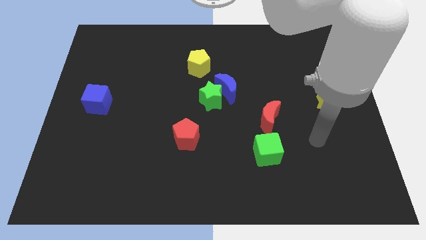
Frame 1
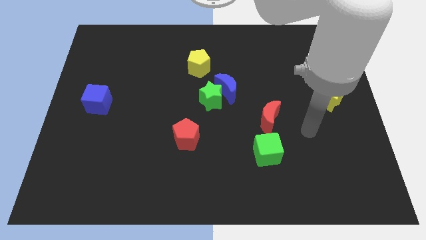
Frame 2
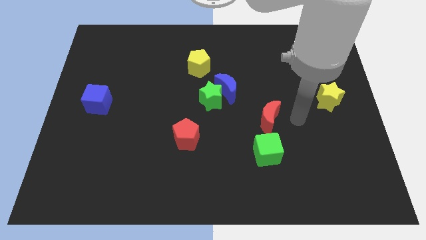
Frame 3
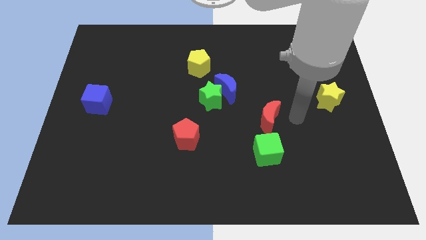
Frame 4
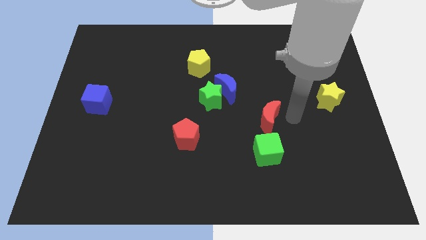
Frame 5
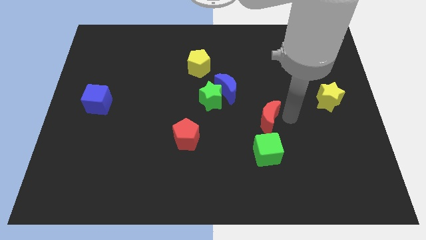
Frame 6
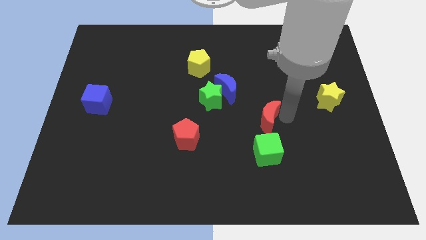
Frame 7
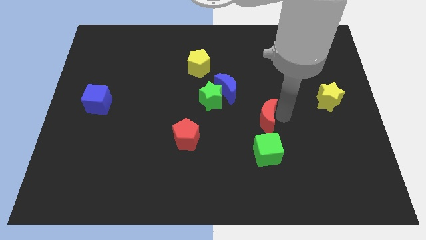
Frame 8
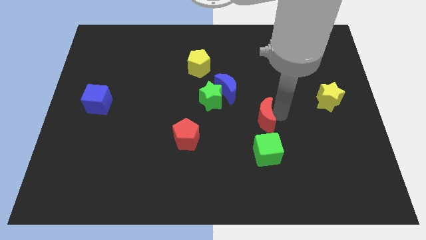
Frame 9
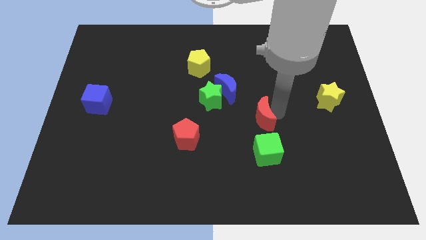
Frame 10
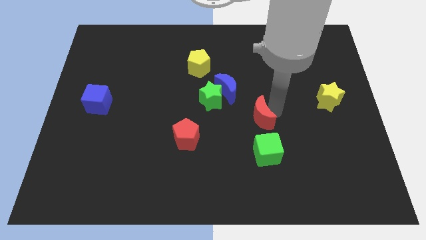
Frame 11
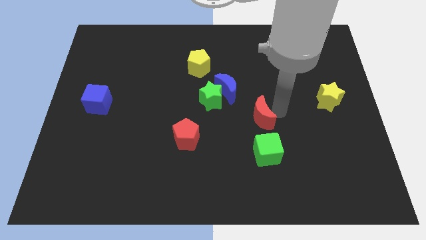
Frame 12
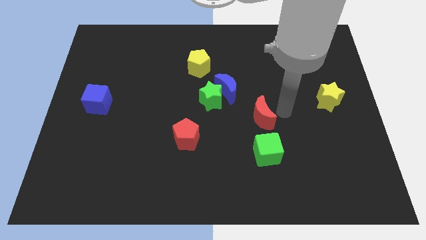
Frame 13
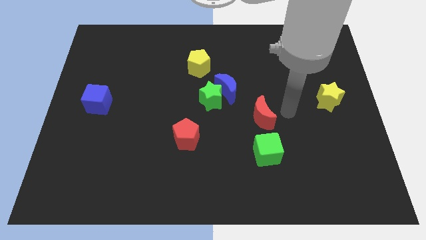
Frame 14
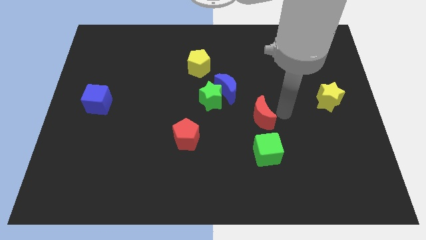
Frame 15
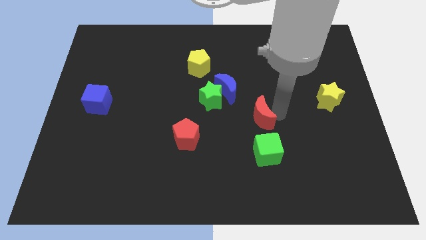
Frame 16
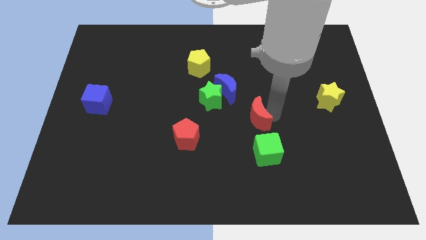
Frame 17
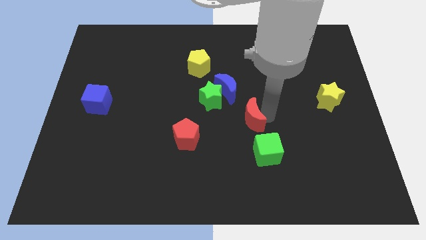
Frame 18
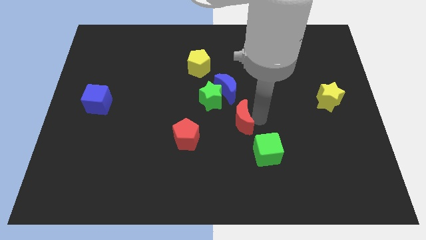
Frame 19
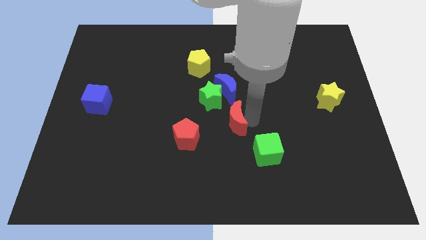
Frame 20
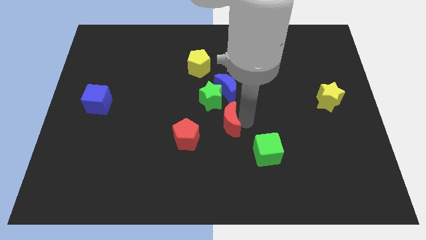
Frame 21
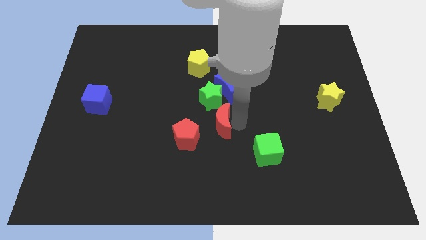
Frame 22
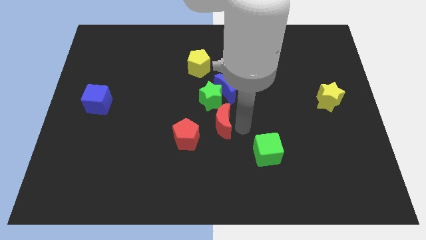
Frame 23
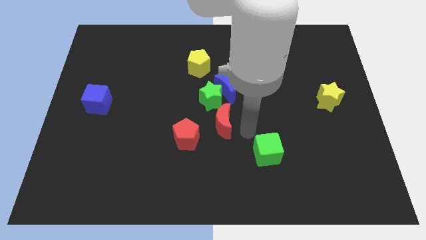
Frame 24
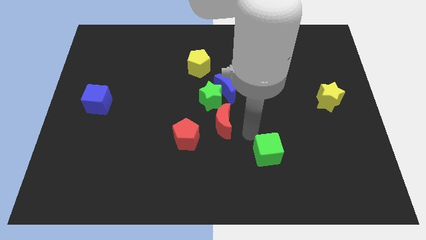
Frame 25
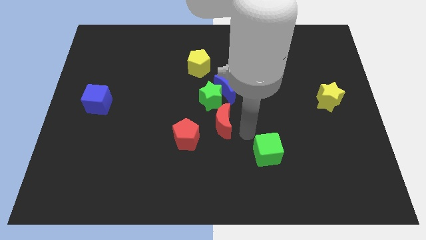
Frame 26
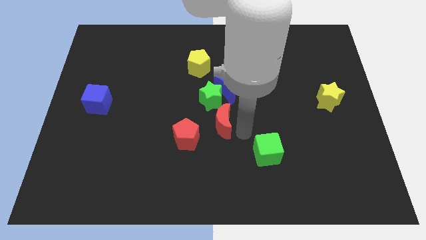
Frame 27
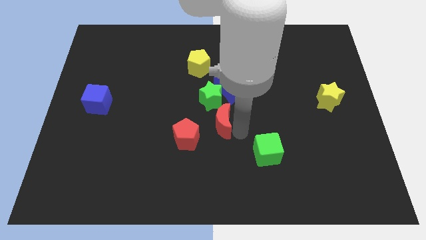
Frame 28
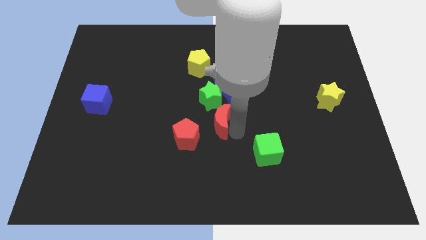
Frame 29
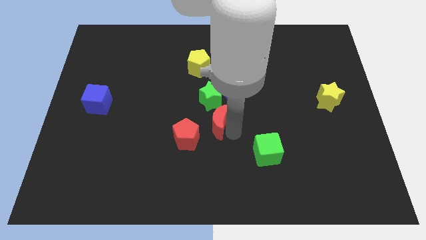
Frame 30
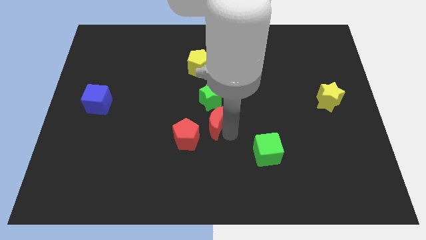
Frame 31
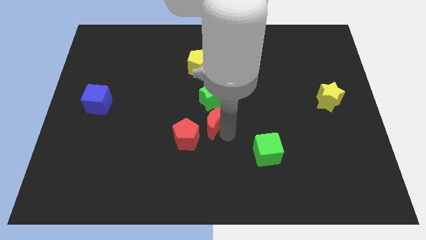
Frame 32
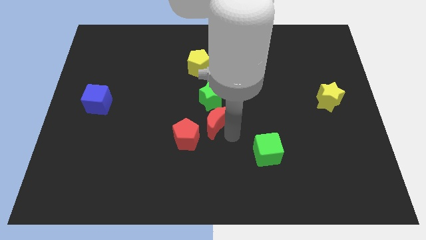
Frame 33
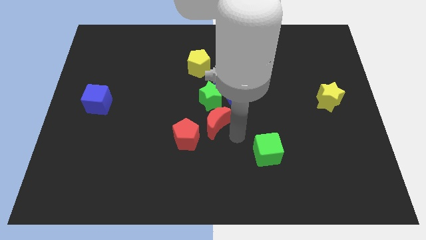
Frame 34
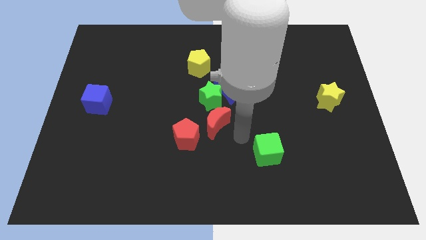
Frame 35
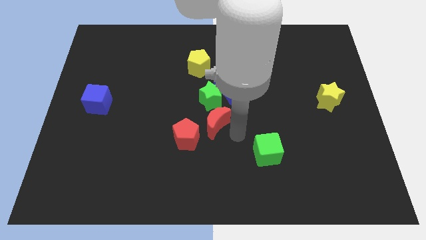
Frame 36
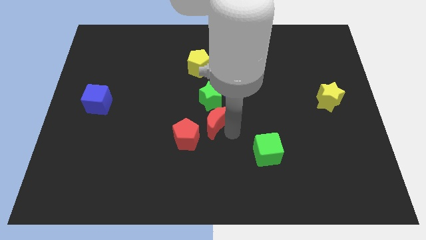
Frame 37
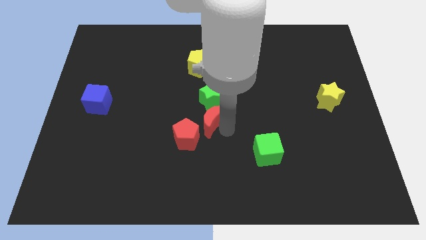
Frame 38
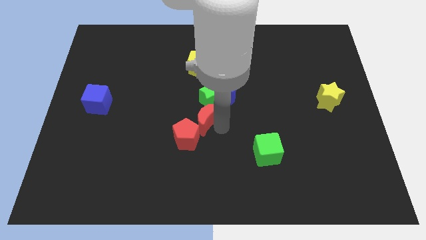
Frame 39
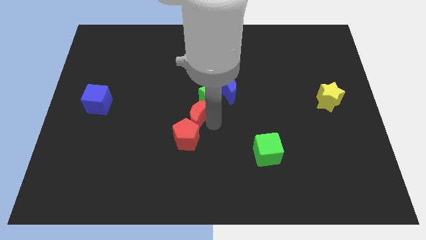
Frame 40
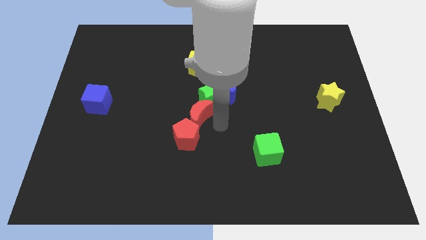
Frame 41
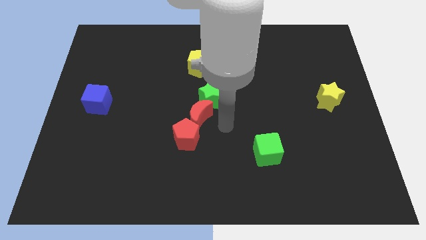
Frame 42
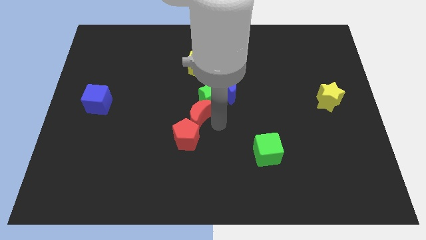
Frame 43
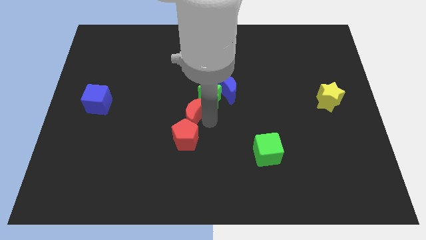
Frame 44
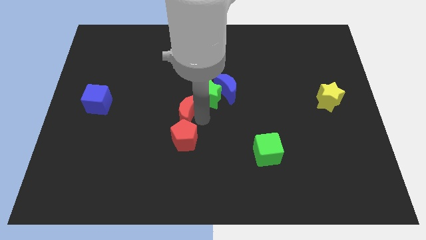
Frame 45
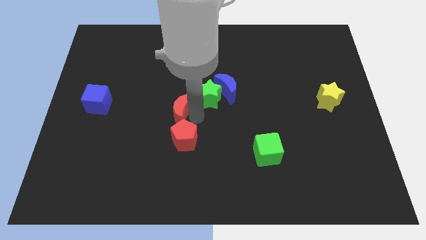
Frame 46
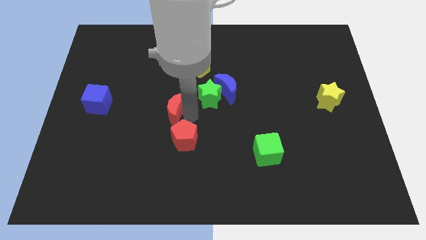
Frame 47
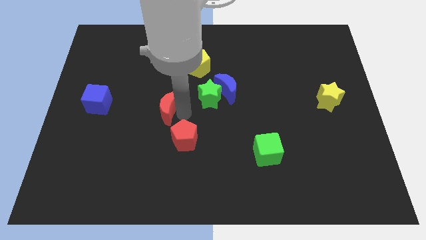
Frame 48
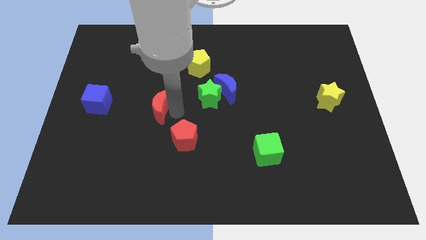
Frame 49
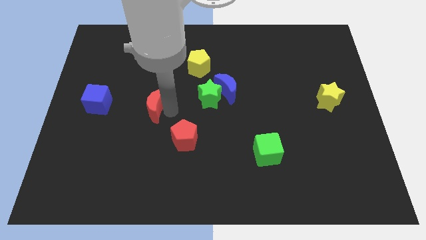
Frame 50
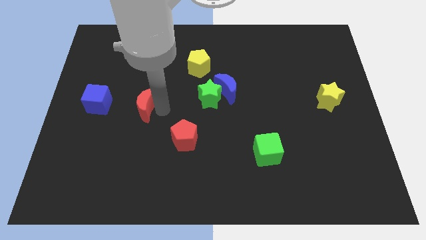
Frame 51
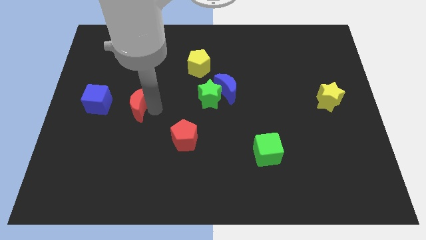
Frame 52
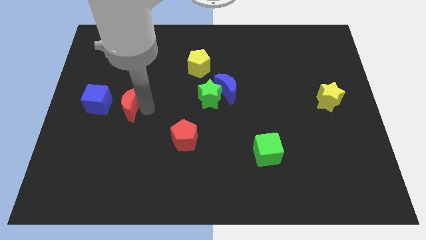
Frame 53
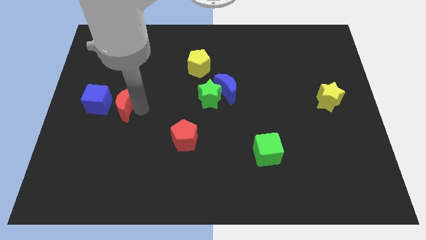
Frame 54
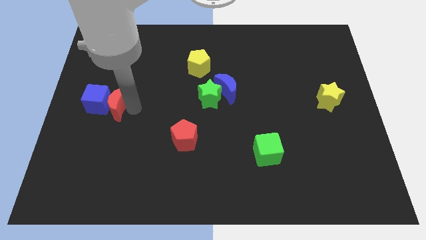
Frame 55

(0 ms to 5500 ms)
put the red moon to the blue cube

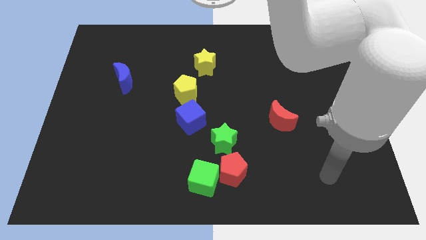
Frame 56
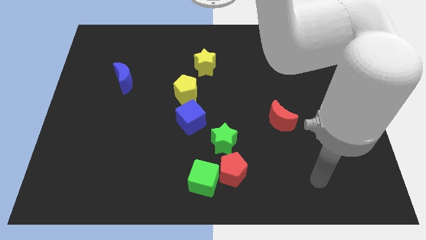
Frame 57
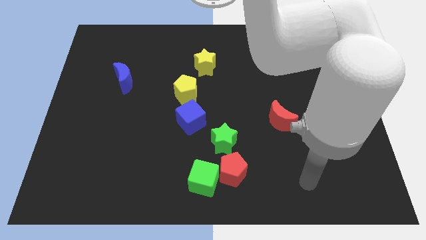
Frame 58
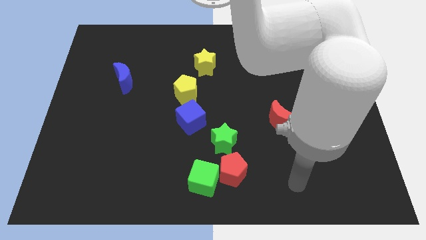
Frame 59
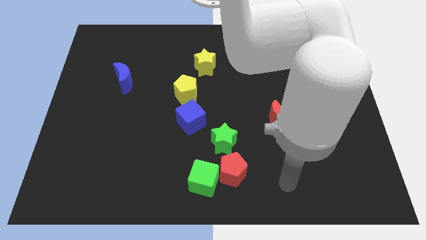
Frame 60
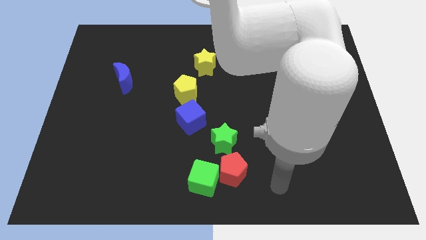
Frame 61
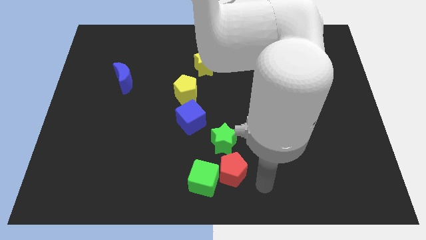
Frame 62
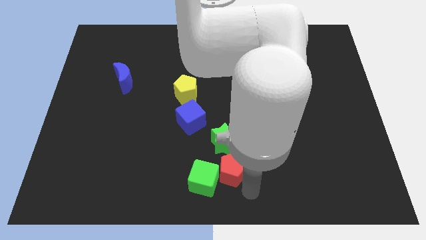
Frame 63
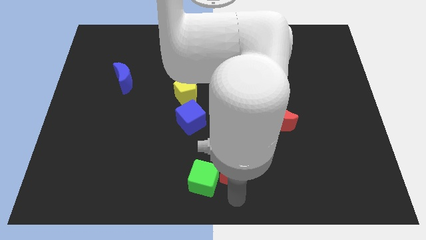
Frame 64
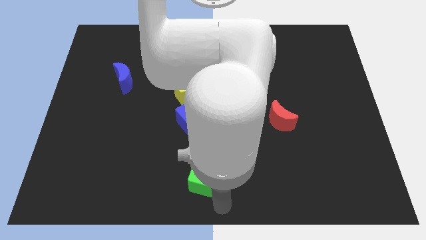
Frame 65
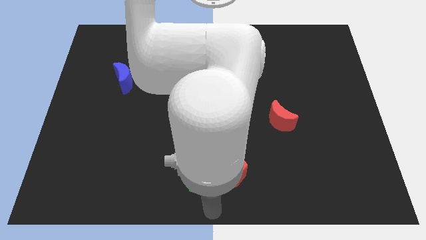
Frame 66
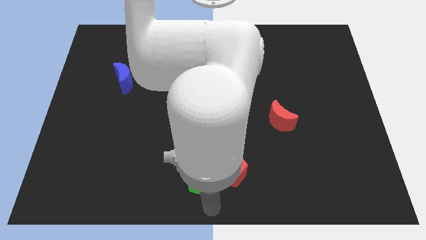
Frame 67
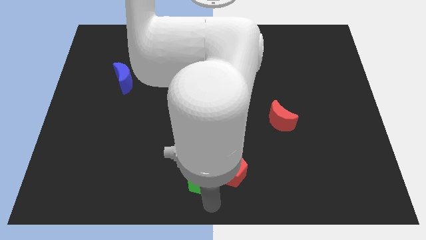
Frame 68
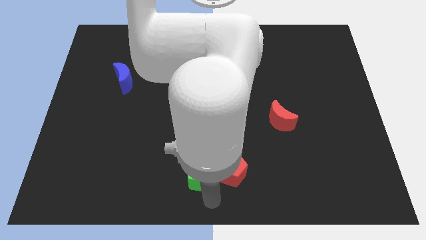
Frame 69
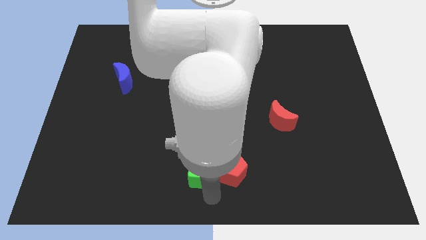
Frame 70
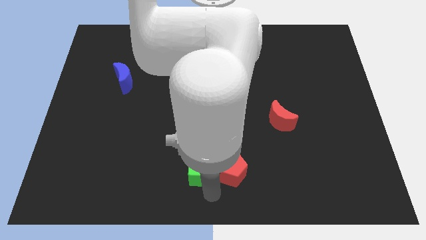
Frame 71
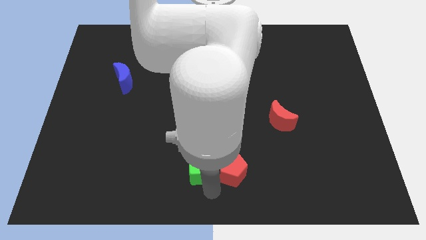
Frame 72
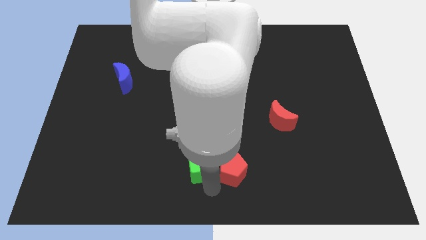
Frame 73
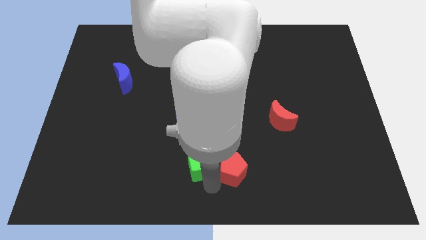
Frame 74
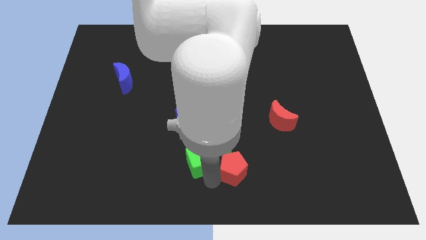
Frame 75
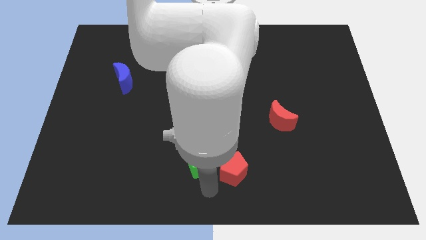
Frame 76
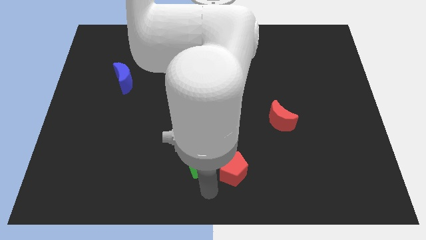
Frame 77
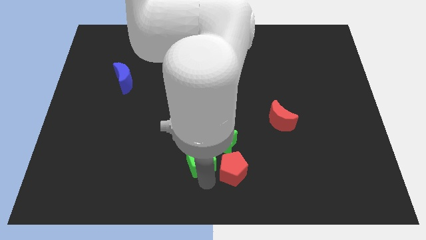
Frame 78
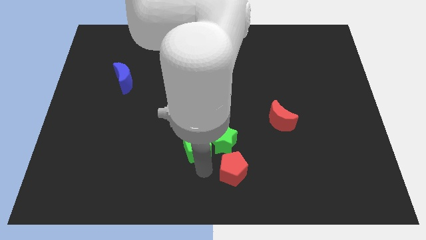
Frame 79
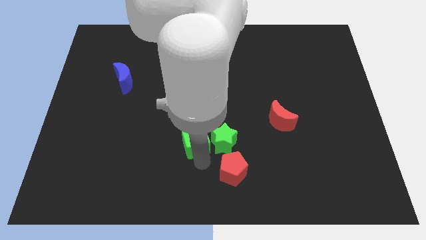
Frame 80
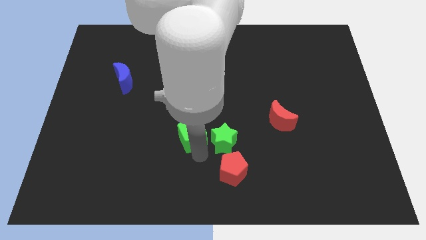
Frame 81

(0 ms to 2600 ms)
slide the green cube close to the blue cube
